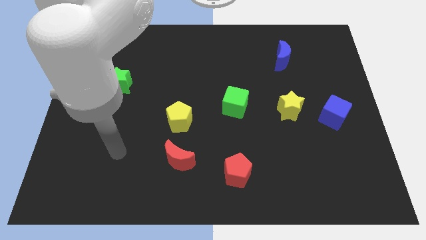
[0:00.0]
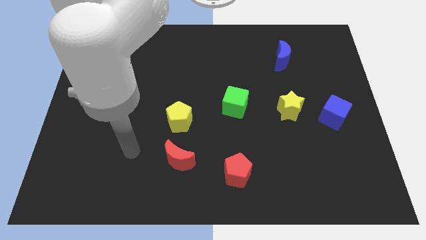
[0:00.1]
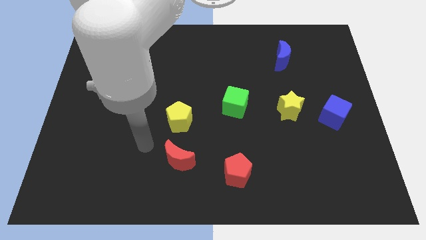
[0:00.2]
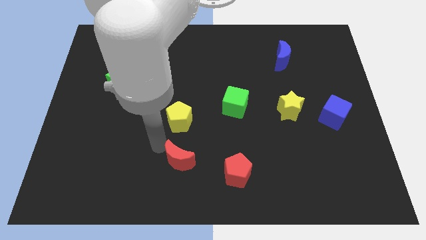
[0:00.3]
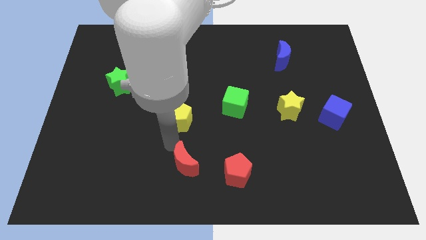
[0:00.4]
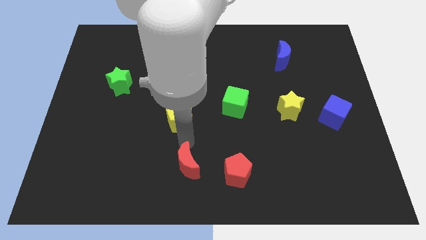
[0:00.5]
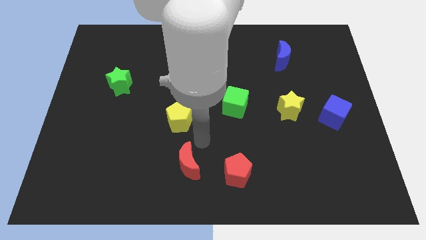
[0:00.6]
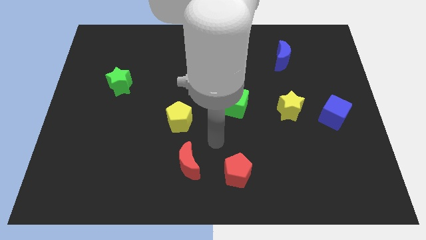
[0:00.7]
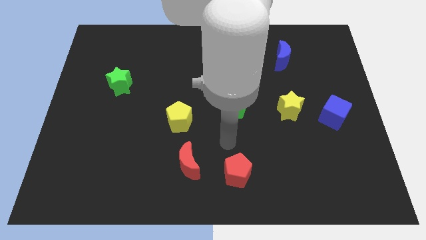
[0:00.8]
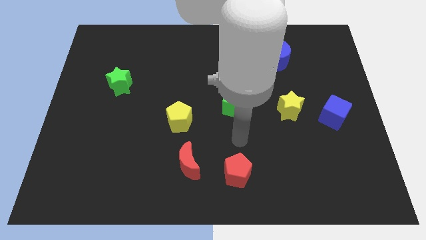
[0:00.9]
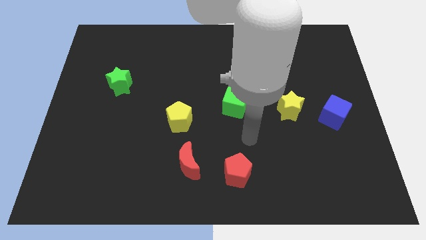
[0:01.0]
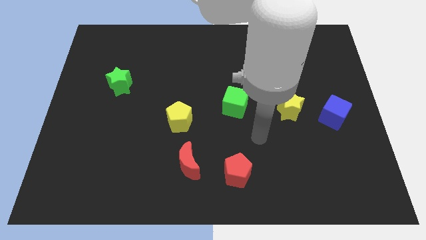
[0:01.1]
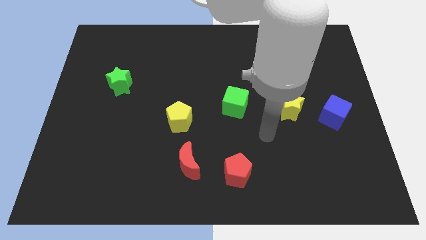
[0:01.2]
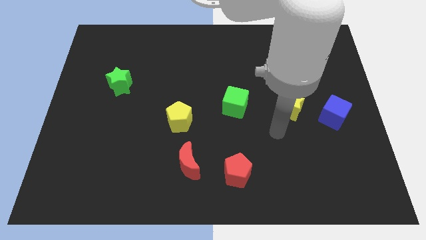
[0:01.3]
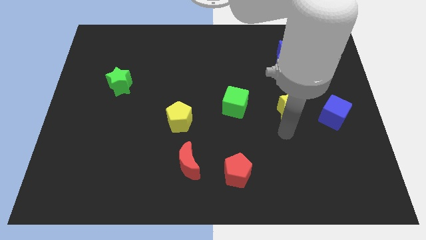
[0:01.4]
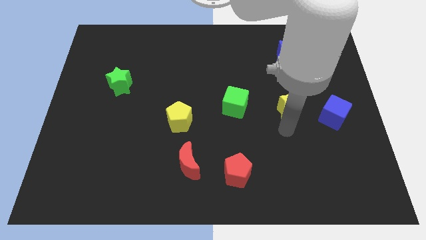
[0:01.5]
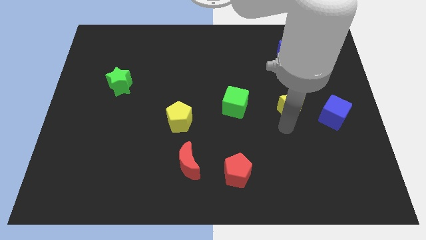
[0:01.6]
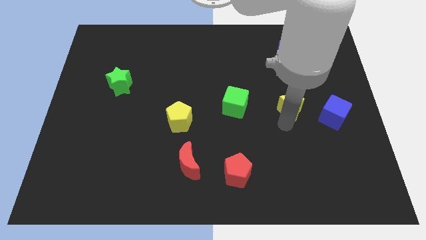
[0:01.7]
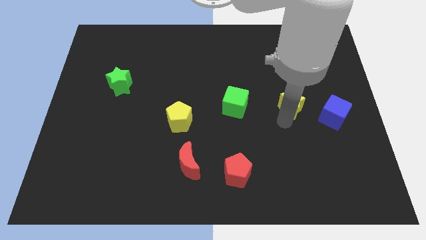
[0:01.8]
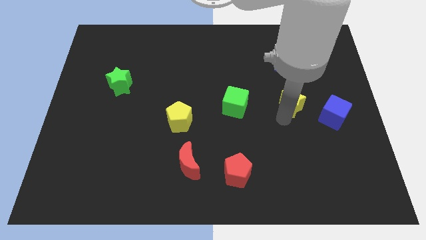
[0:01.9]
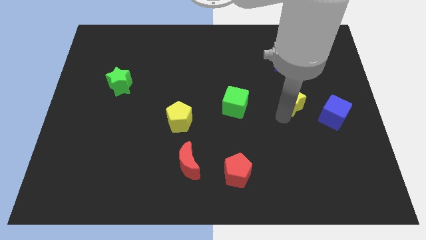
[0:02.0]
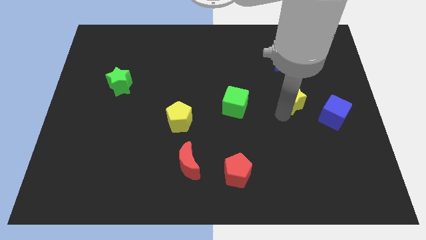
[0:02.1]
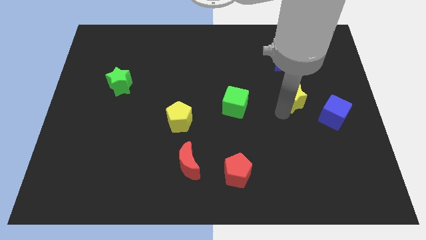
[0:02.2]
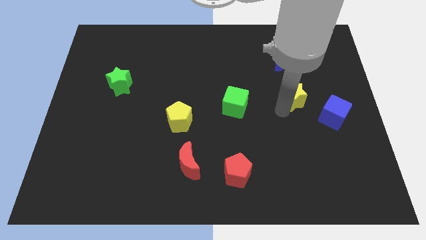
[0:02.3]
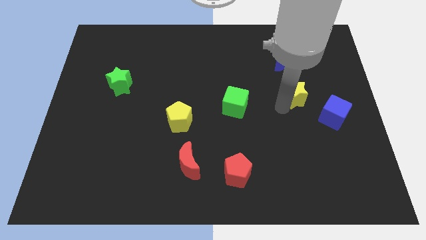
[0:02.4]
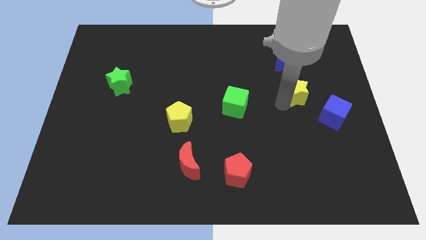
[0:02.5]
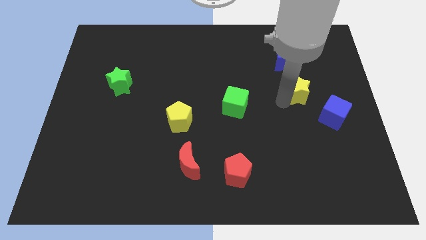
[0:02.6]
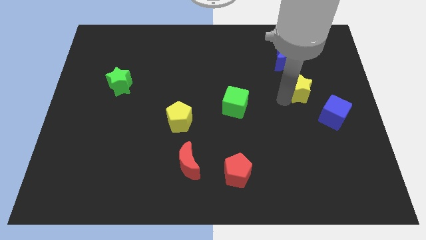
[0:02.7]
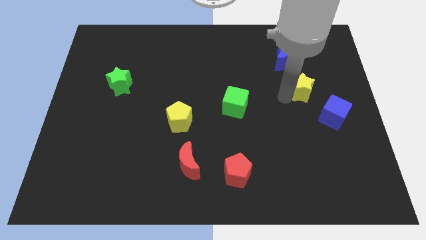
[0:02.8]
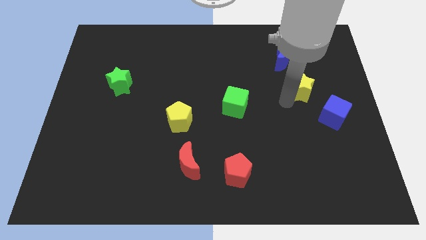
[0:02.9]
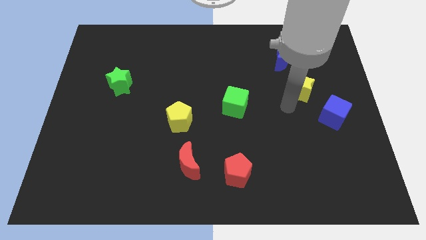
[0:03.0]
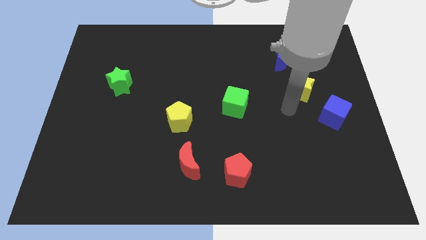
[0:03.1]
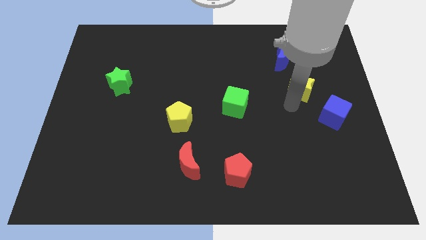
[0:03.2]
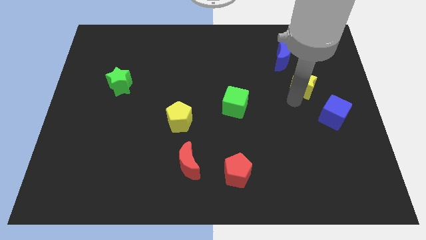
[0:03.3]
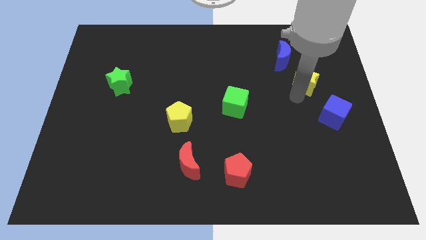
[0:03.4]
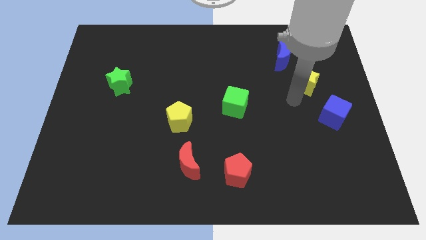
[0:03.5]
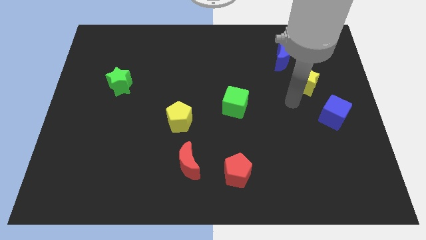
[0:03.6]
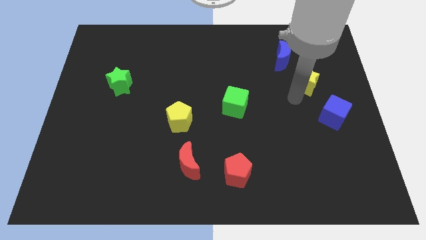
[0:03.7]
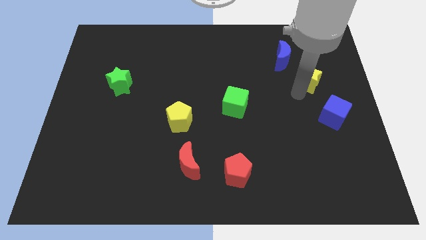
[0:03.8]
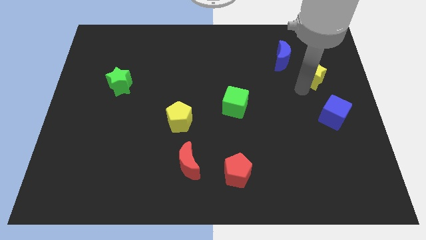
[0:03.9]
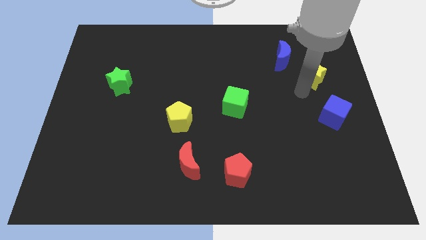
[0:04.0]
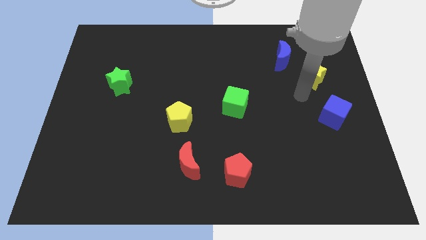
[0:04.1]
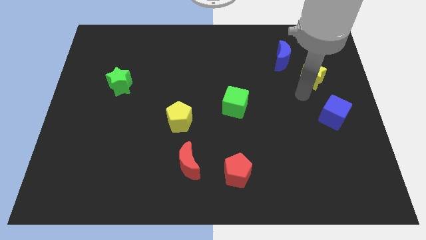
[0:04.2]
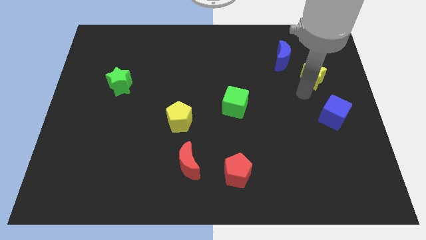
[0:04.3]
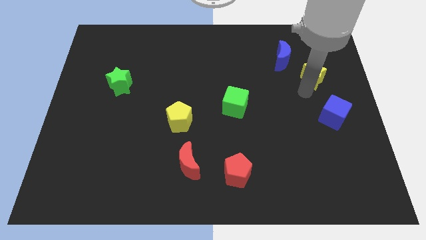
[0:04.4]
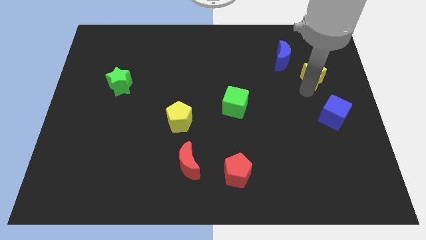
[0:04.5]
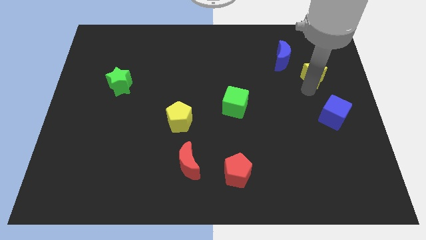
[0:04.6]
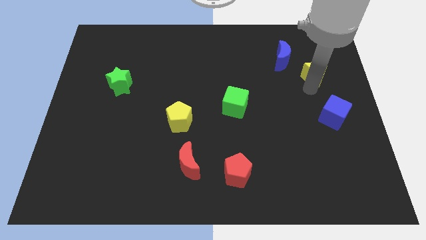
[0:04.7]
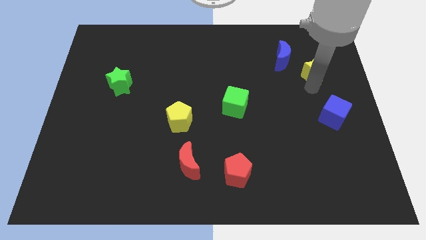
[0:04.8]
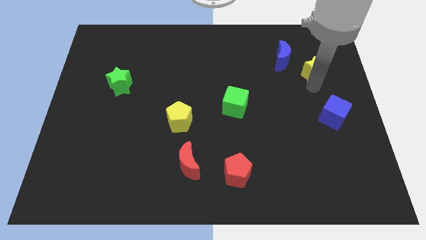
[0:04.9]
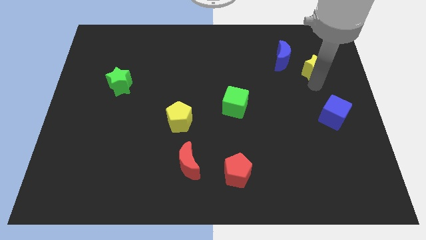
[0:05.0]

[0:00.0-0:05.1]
move the yellow star right of the blue moon

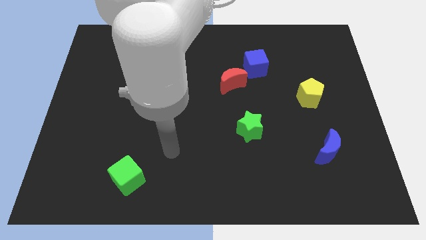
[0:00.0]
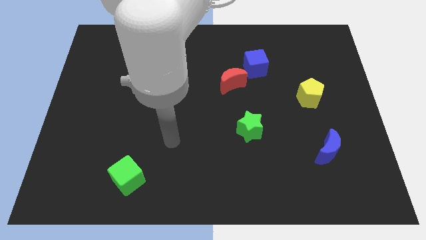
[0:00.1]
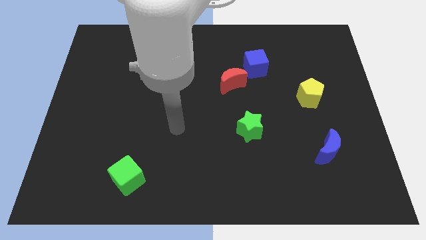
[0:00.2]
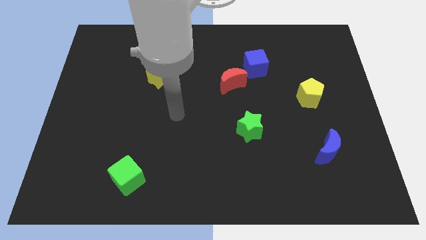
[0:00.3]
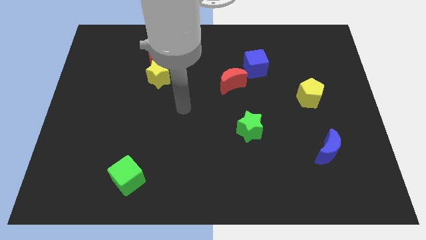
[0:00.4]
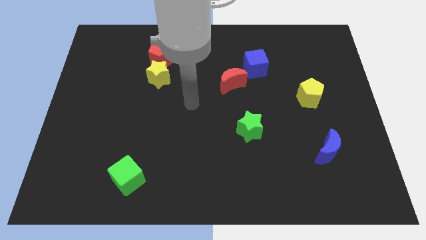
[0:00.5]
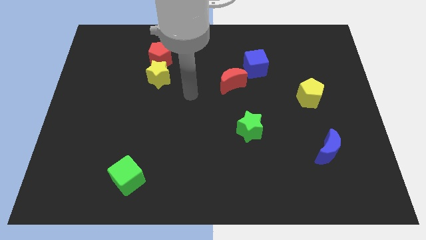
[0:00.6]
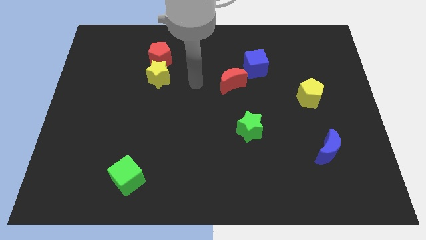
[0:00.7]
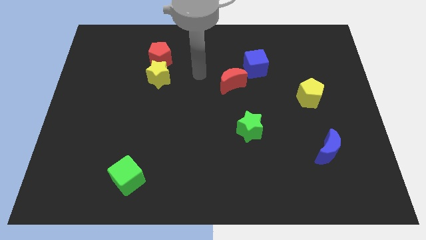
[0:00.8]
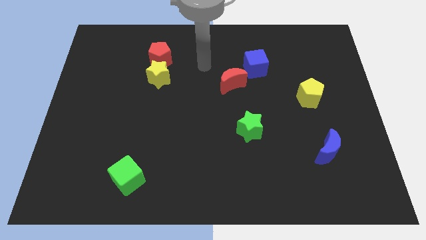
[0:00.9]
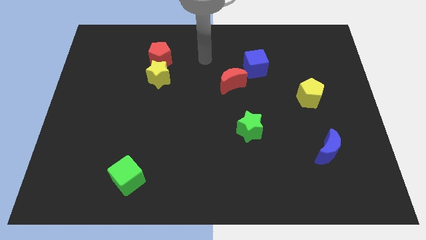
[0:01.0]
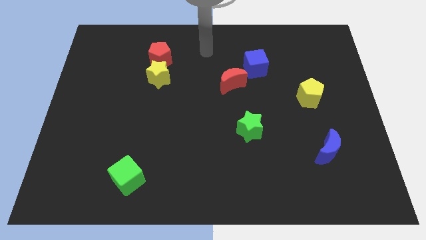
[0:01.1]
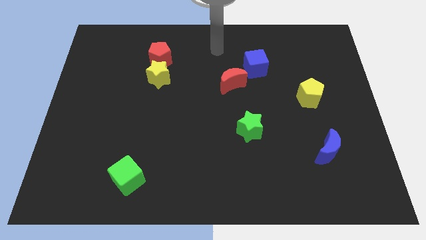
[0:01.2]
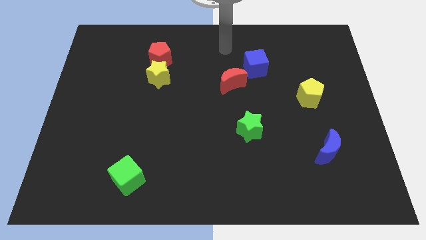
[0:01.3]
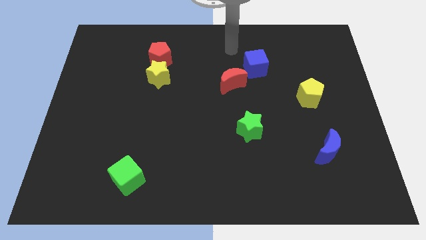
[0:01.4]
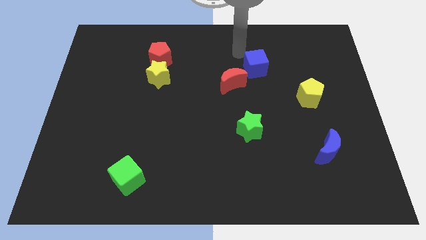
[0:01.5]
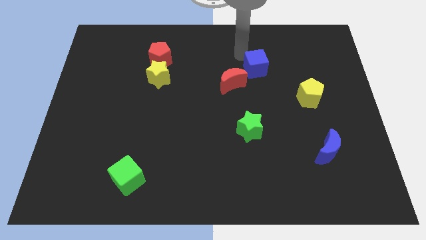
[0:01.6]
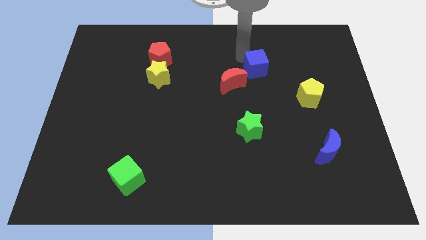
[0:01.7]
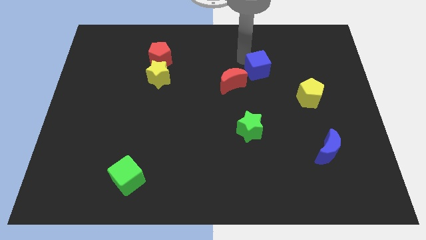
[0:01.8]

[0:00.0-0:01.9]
slide the blue cube just right of the red moon
